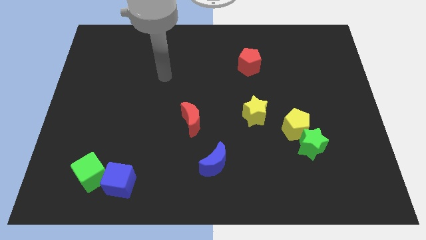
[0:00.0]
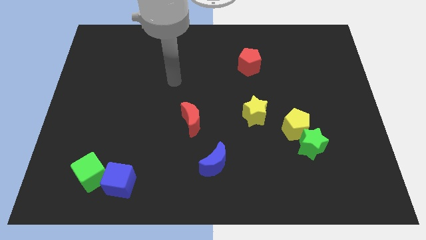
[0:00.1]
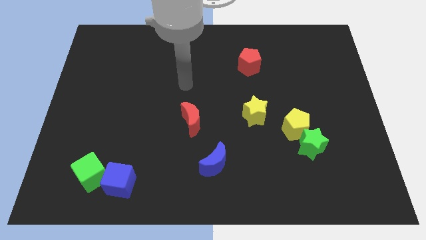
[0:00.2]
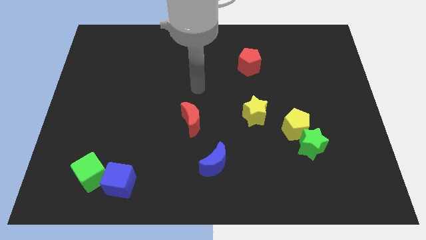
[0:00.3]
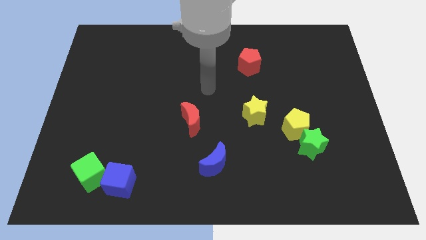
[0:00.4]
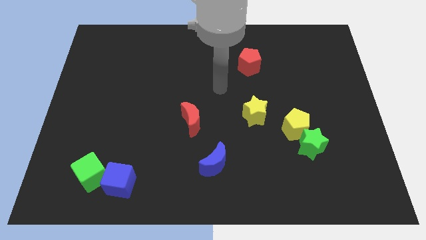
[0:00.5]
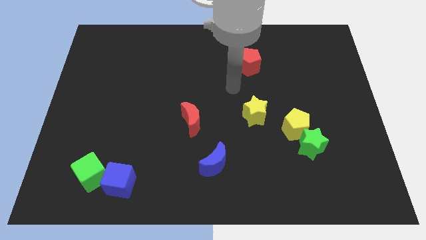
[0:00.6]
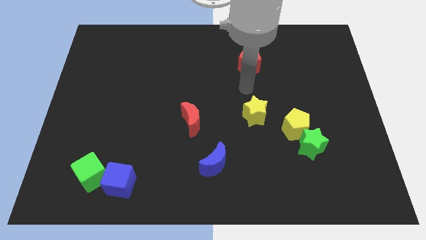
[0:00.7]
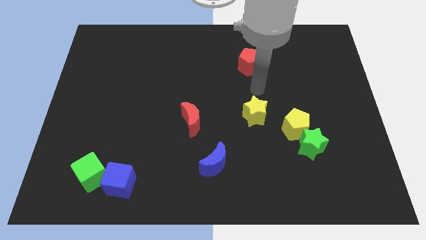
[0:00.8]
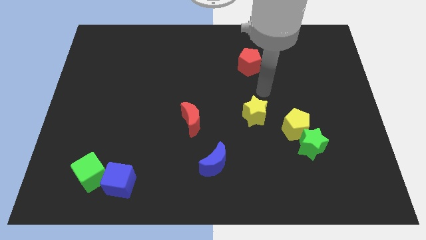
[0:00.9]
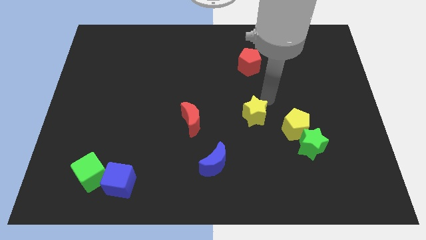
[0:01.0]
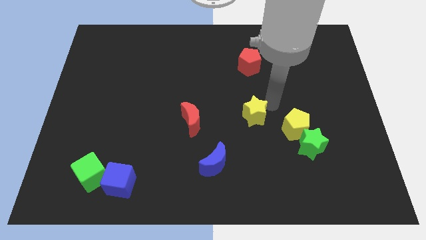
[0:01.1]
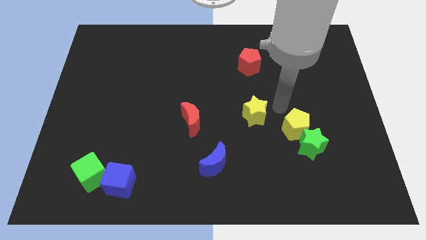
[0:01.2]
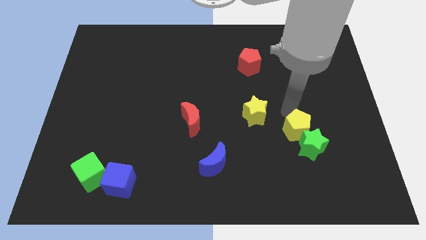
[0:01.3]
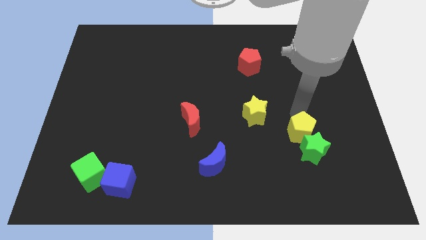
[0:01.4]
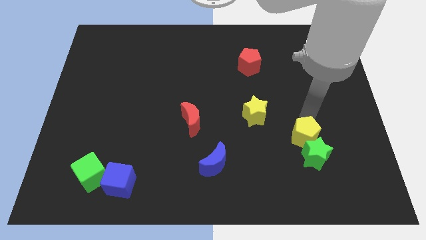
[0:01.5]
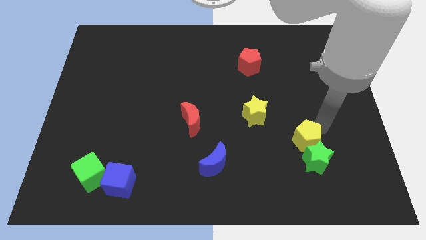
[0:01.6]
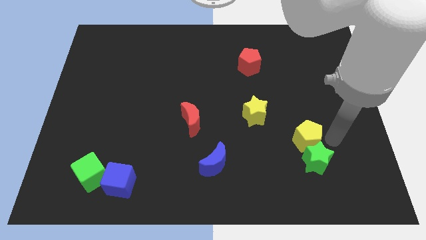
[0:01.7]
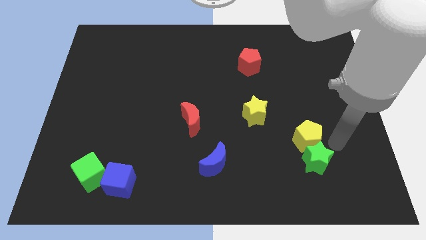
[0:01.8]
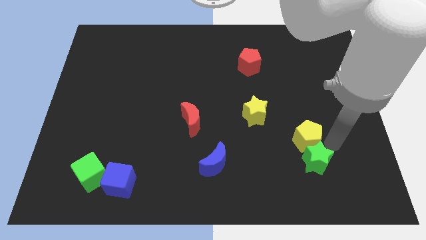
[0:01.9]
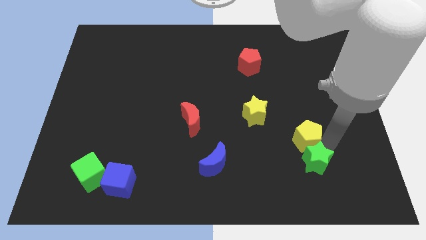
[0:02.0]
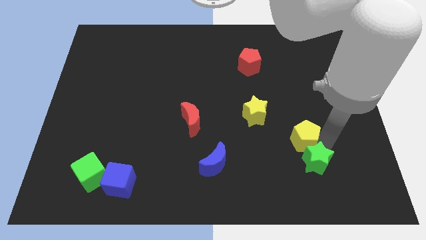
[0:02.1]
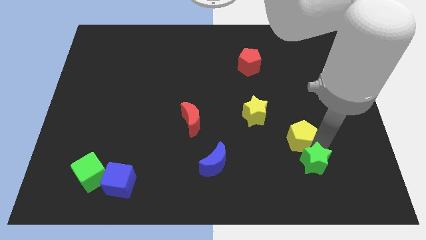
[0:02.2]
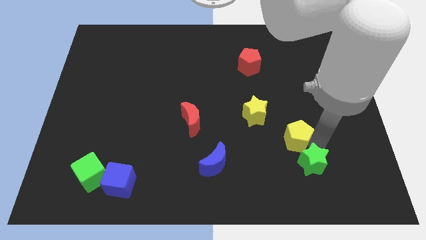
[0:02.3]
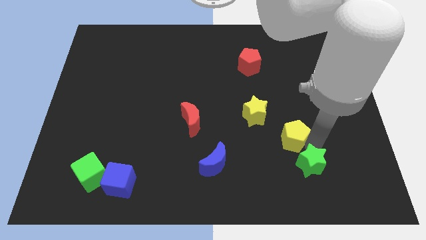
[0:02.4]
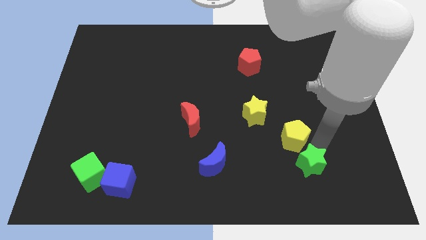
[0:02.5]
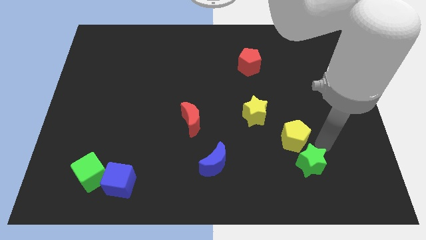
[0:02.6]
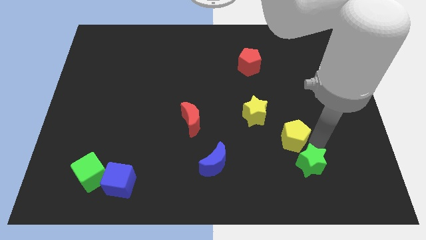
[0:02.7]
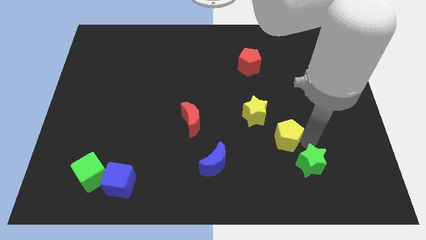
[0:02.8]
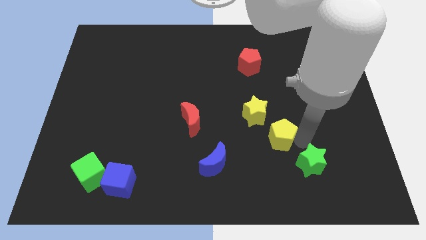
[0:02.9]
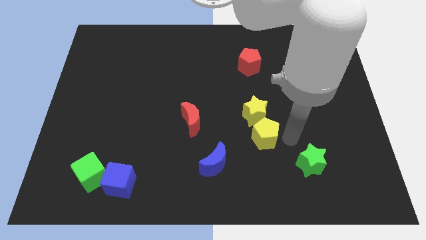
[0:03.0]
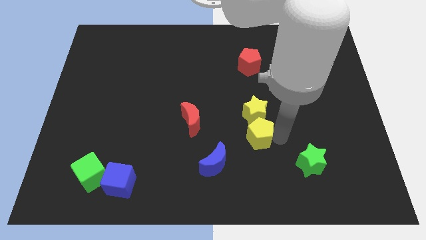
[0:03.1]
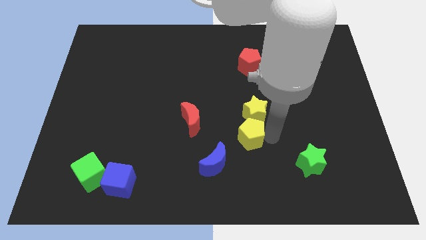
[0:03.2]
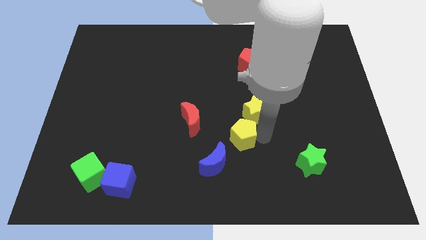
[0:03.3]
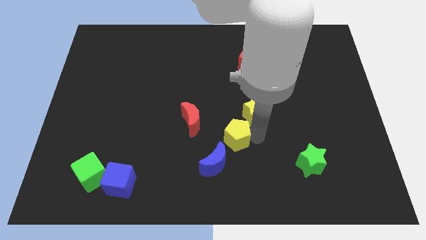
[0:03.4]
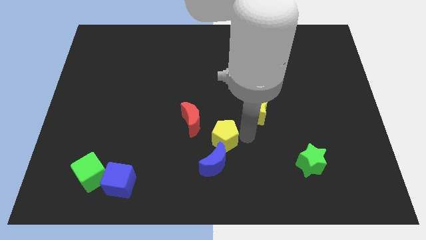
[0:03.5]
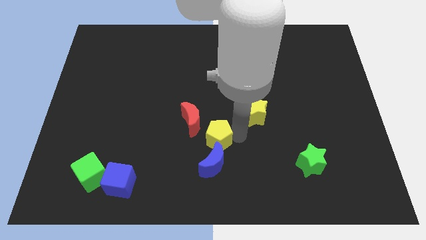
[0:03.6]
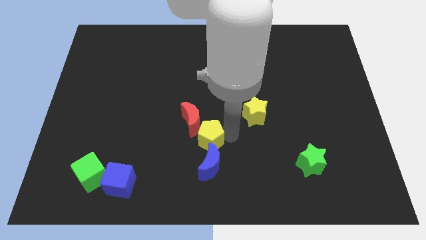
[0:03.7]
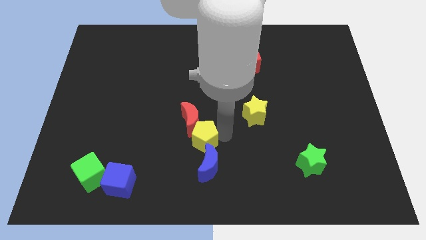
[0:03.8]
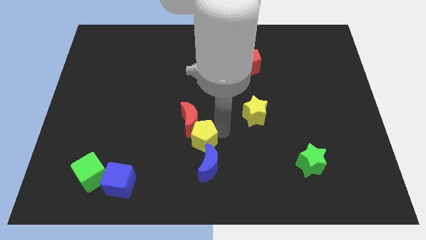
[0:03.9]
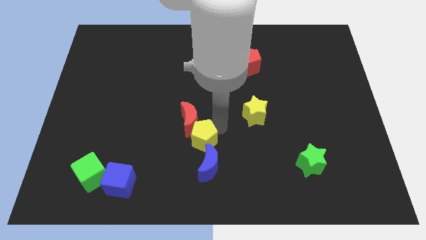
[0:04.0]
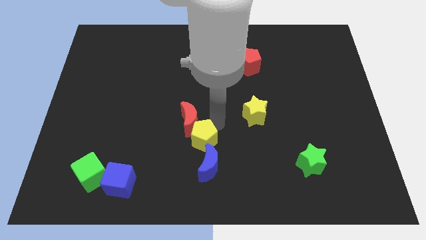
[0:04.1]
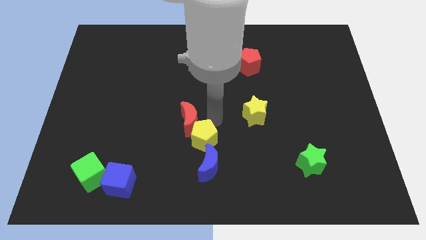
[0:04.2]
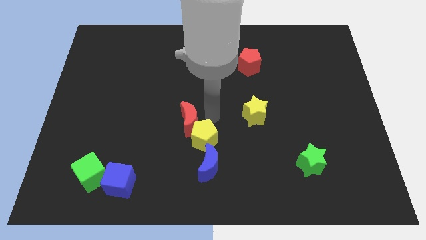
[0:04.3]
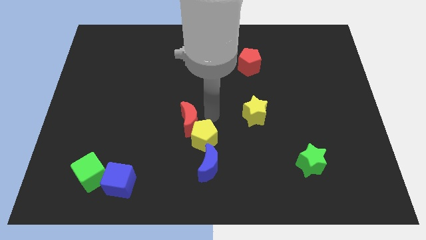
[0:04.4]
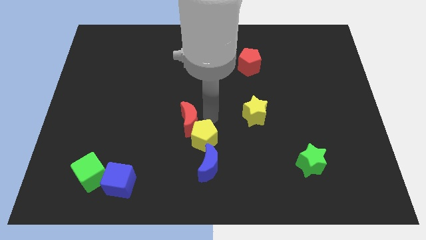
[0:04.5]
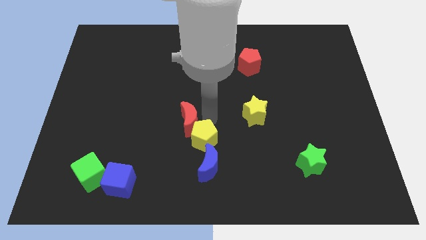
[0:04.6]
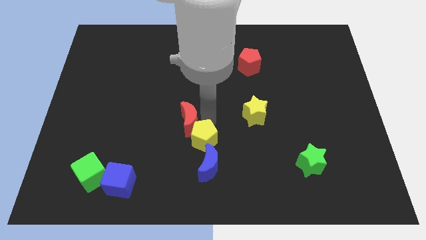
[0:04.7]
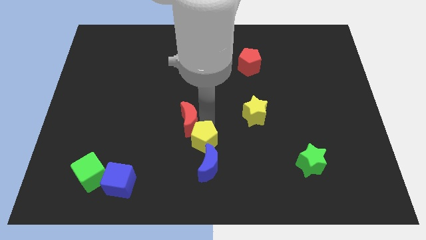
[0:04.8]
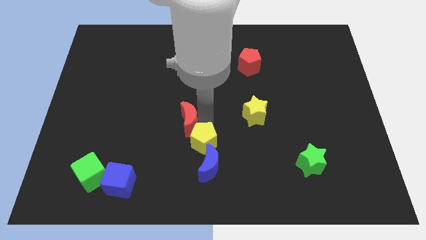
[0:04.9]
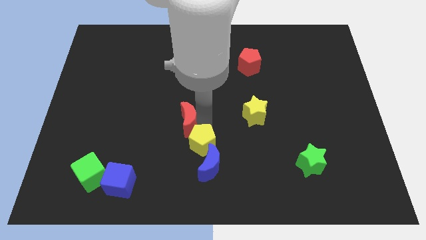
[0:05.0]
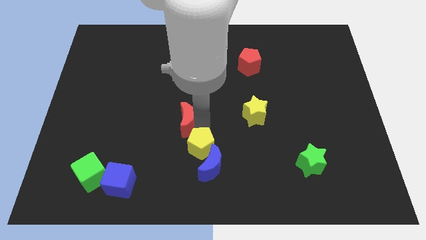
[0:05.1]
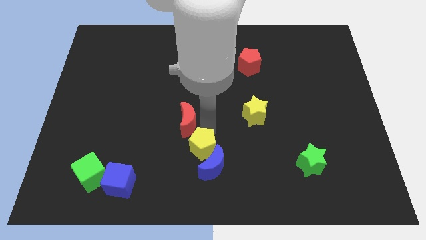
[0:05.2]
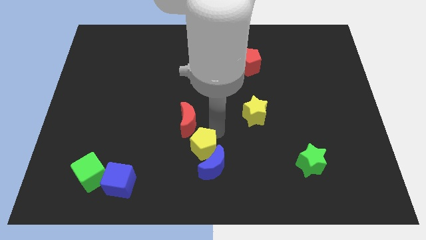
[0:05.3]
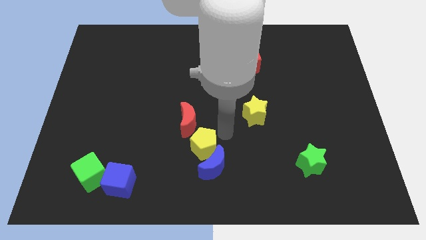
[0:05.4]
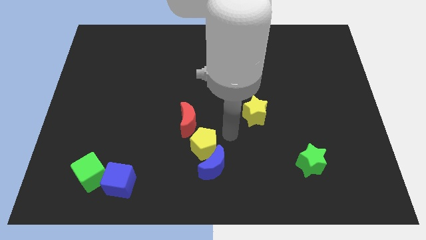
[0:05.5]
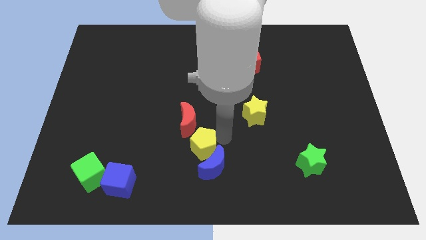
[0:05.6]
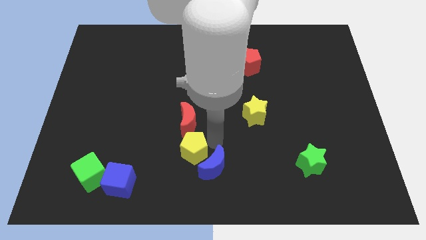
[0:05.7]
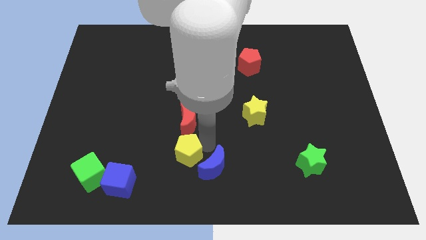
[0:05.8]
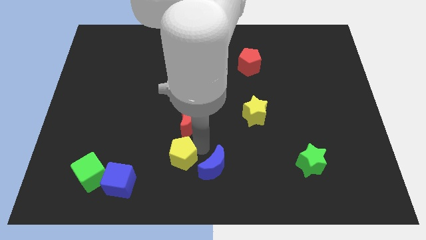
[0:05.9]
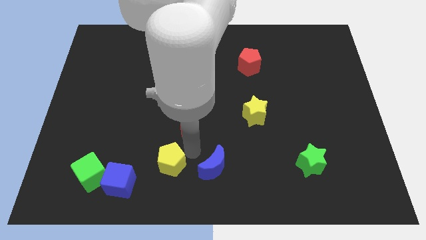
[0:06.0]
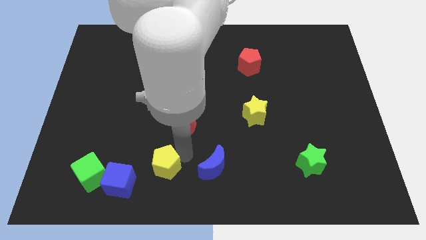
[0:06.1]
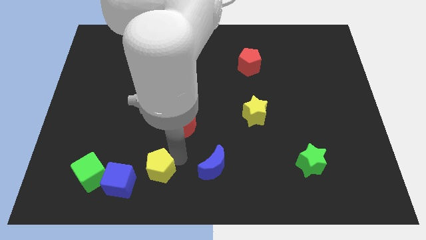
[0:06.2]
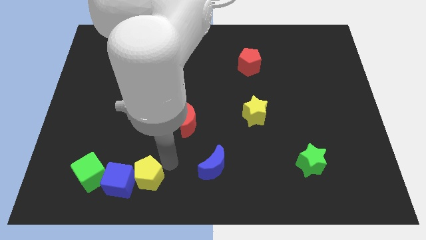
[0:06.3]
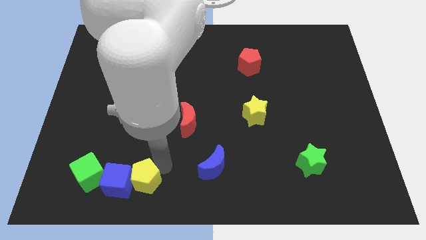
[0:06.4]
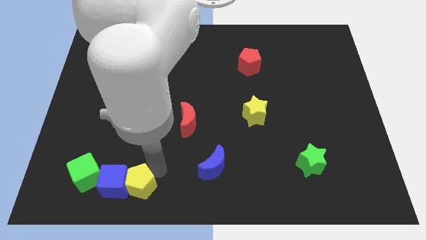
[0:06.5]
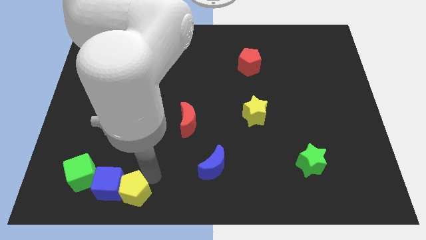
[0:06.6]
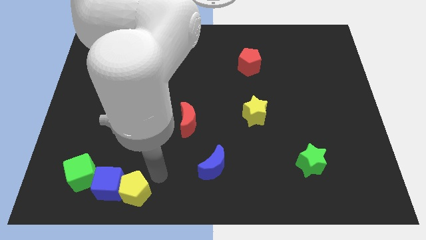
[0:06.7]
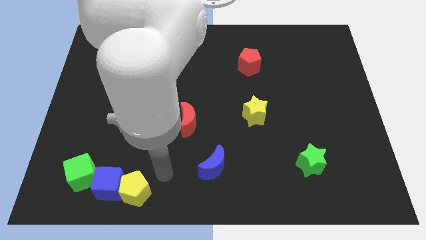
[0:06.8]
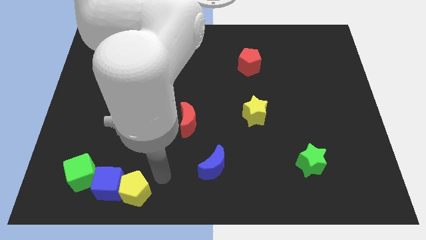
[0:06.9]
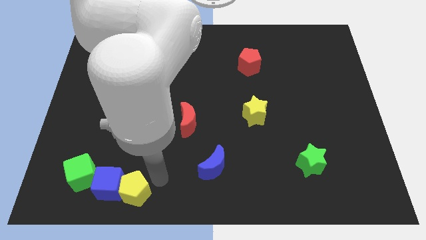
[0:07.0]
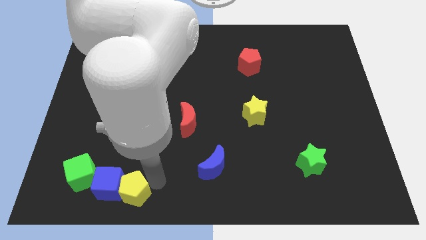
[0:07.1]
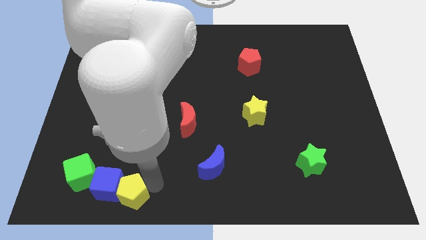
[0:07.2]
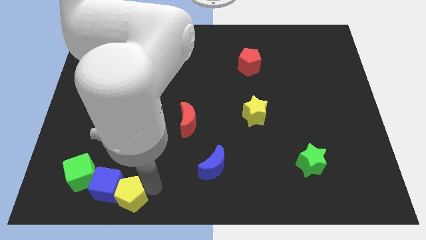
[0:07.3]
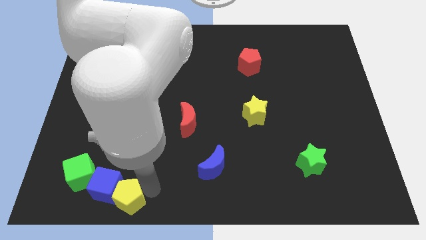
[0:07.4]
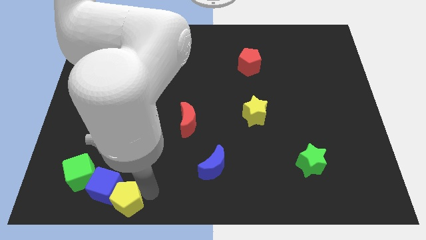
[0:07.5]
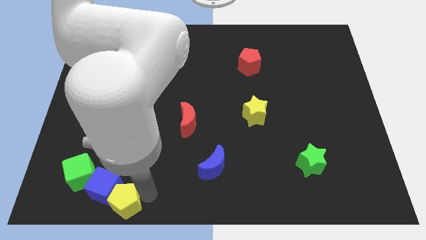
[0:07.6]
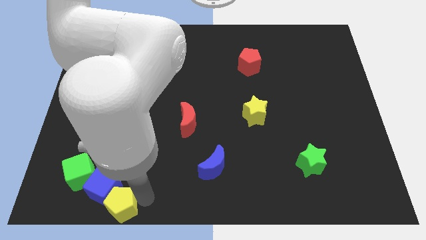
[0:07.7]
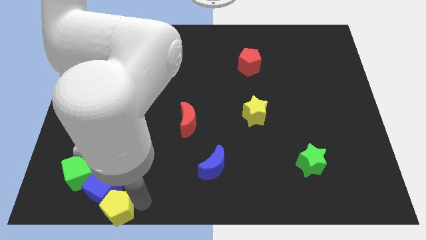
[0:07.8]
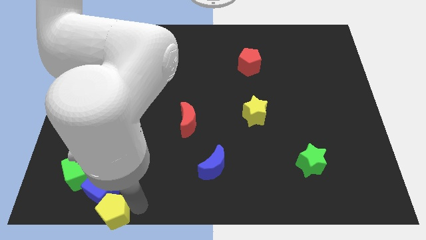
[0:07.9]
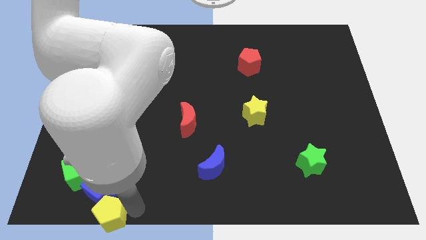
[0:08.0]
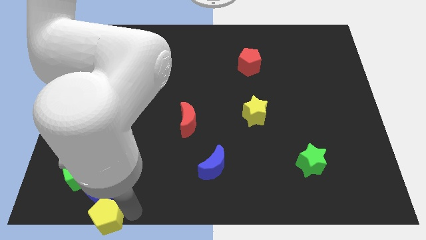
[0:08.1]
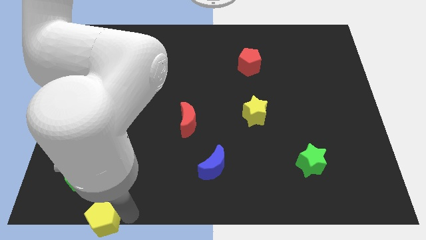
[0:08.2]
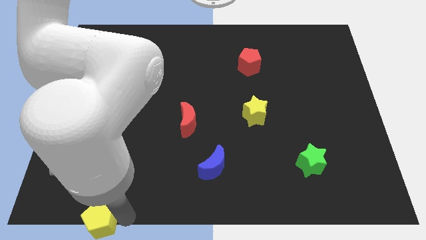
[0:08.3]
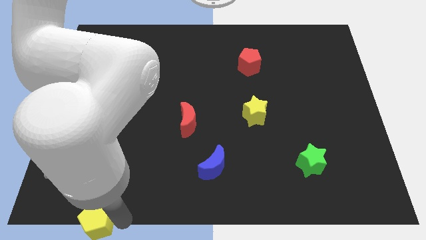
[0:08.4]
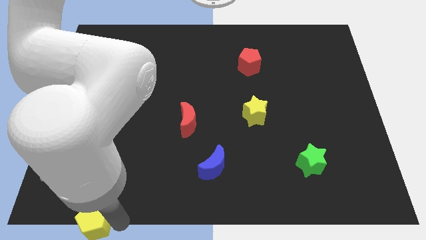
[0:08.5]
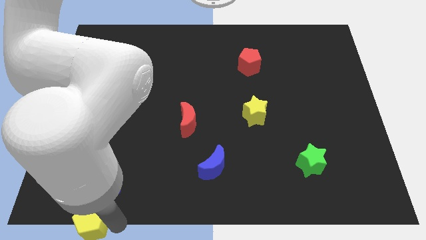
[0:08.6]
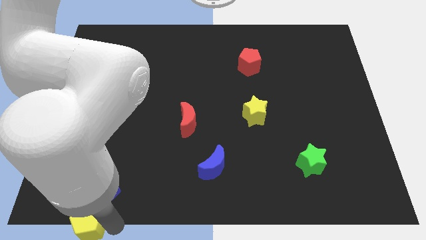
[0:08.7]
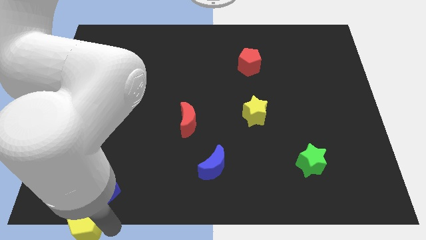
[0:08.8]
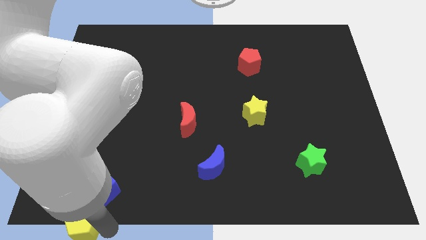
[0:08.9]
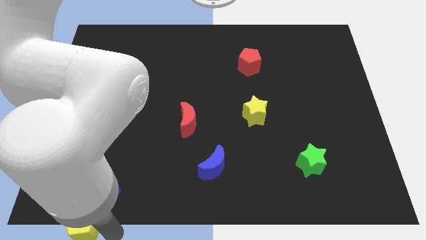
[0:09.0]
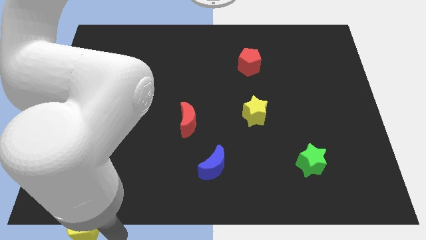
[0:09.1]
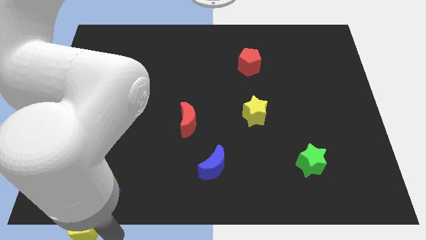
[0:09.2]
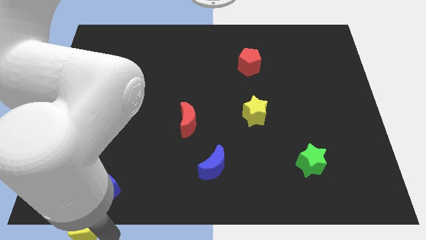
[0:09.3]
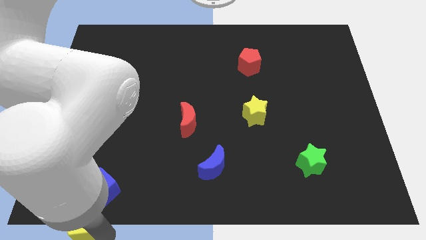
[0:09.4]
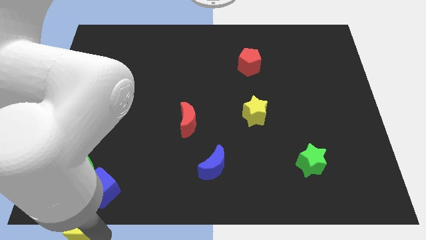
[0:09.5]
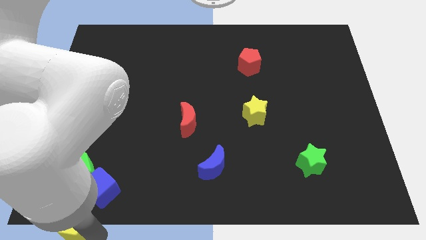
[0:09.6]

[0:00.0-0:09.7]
push the yellow pentagon to the bottom left
